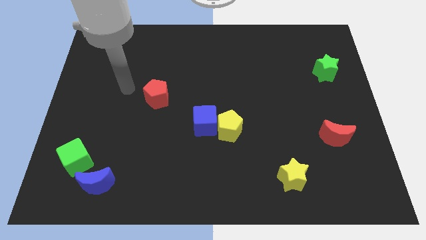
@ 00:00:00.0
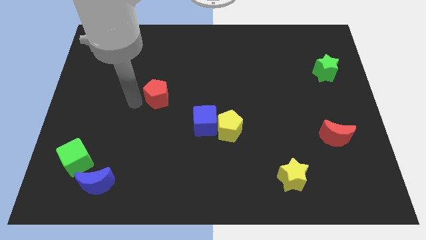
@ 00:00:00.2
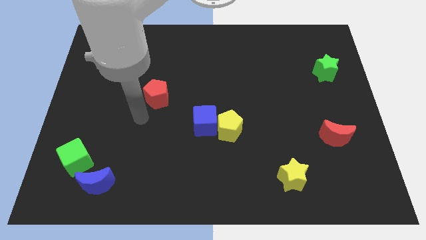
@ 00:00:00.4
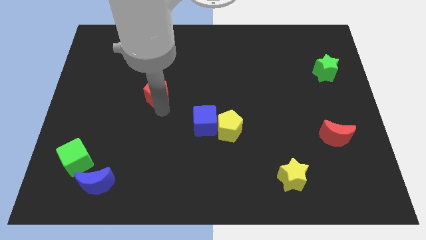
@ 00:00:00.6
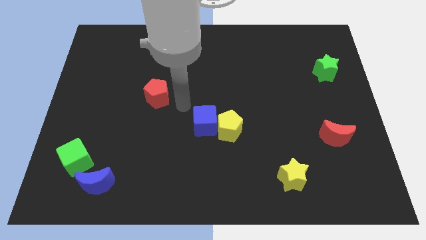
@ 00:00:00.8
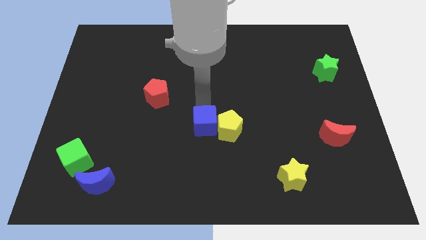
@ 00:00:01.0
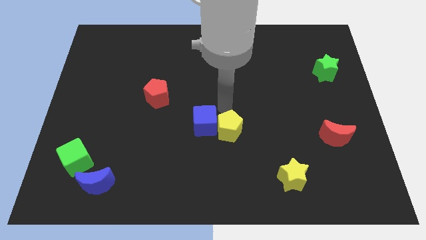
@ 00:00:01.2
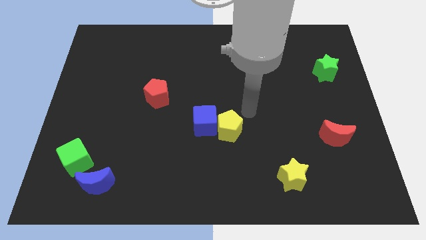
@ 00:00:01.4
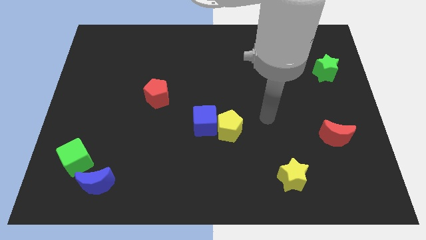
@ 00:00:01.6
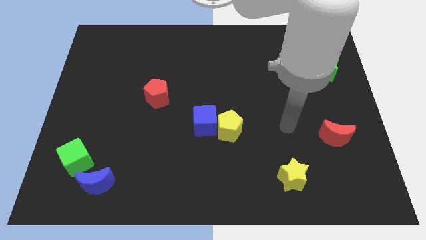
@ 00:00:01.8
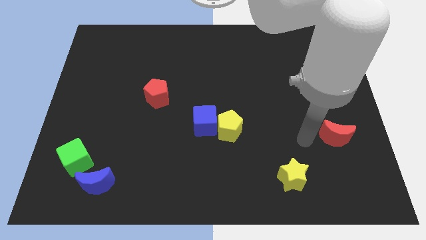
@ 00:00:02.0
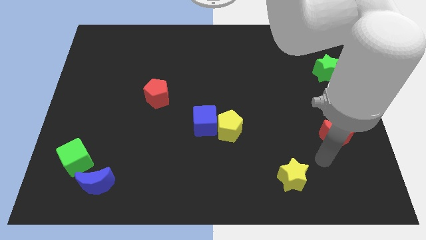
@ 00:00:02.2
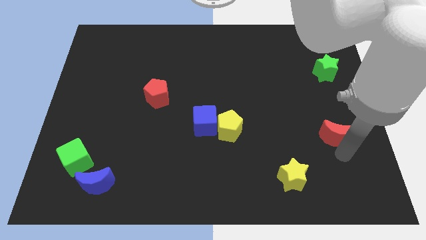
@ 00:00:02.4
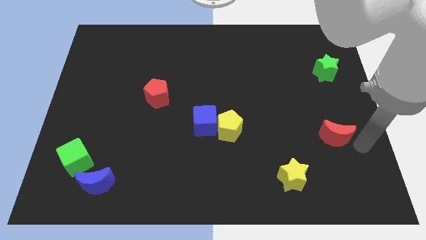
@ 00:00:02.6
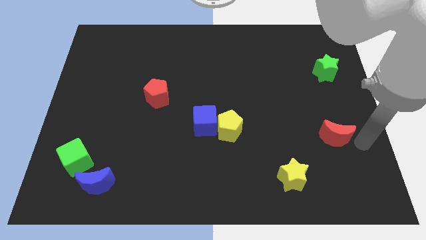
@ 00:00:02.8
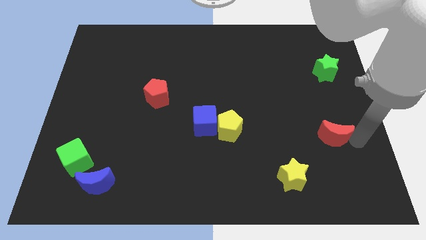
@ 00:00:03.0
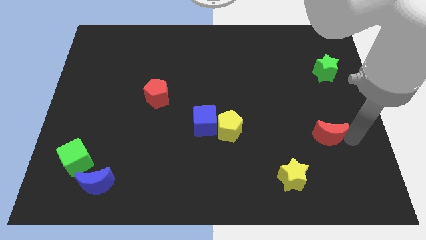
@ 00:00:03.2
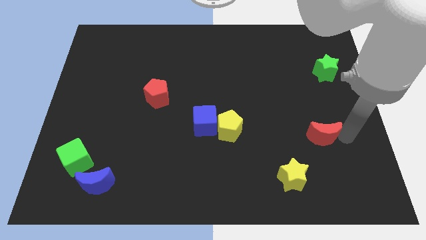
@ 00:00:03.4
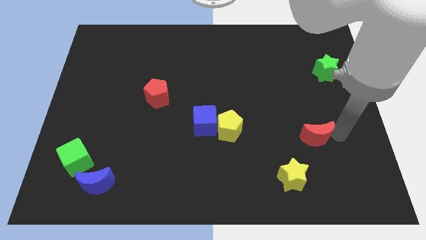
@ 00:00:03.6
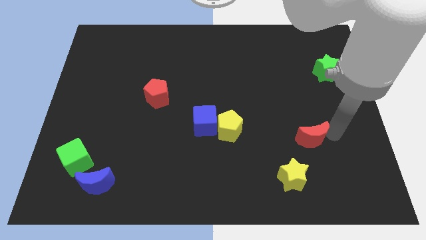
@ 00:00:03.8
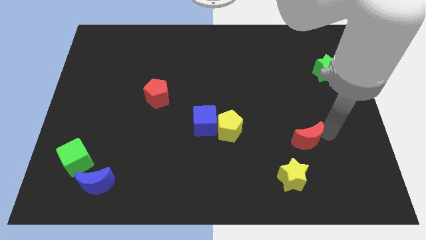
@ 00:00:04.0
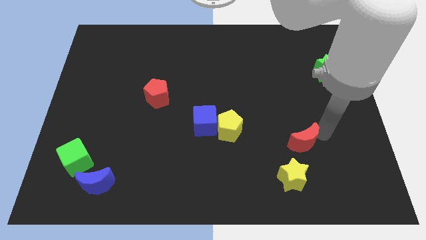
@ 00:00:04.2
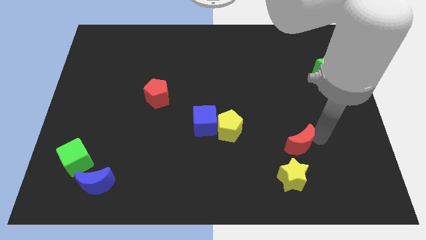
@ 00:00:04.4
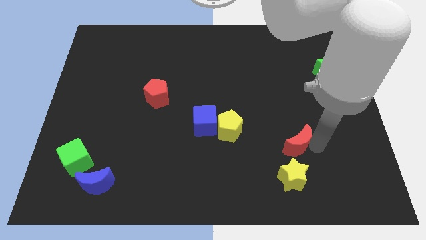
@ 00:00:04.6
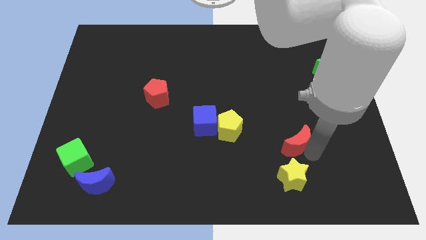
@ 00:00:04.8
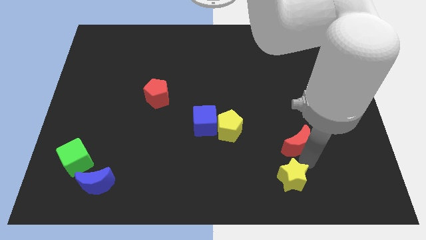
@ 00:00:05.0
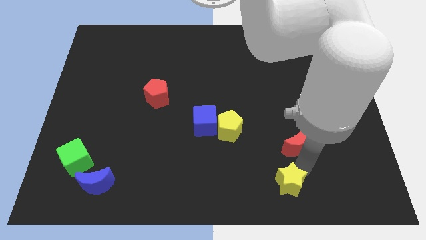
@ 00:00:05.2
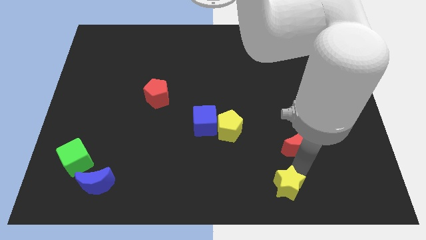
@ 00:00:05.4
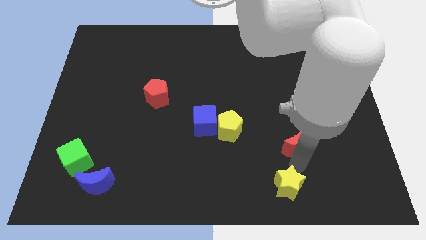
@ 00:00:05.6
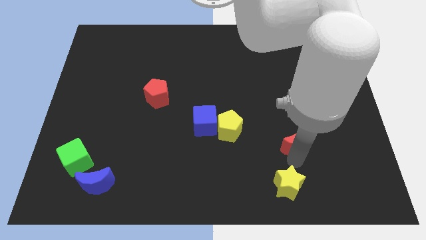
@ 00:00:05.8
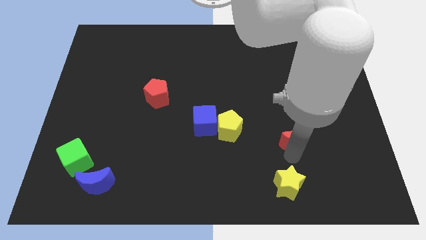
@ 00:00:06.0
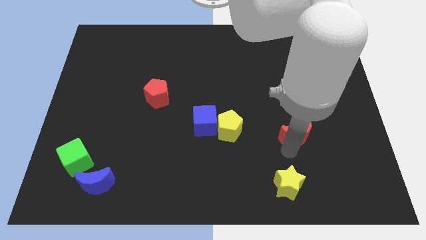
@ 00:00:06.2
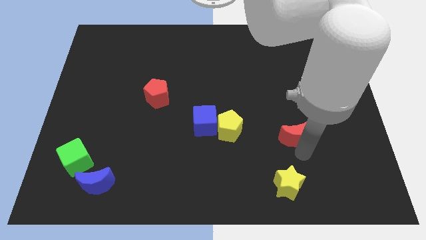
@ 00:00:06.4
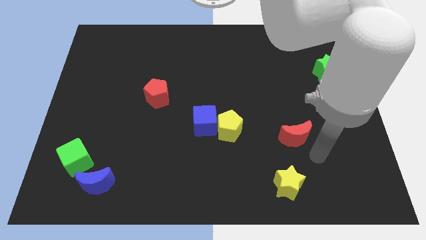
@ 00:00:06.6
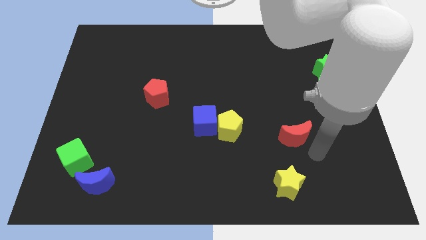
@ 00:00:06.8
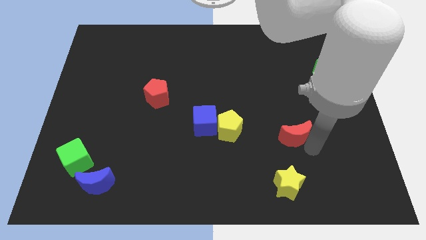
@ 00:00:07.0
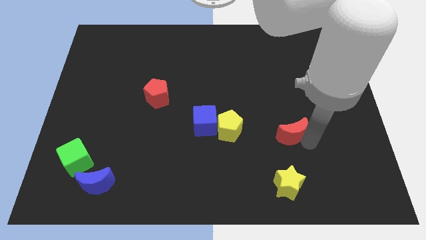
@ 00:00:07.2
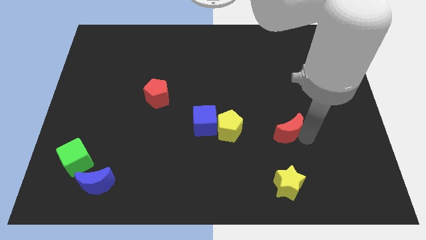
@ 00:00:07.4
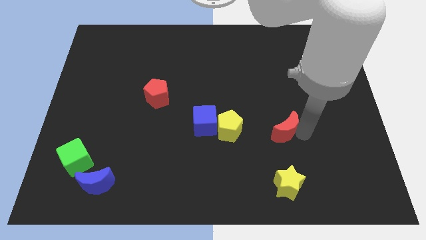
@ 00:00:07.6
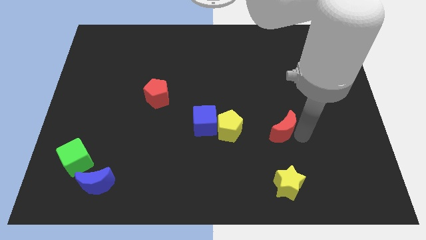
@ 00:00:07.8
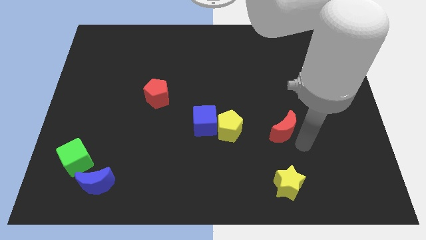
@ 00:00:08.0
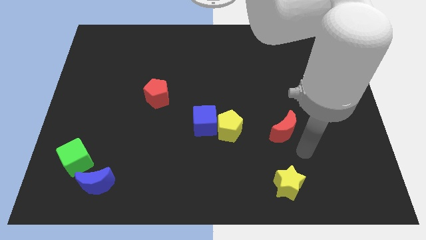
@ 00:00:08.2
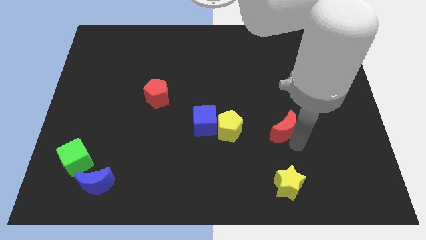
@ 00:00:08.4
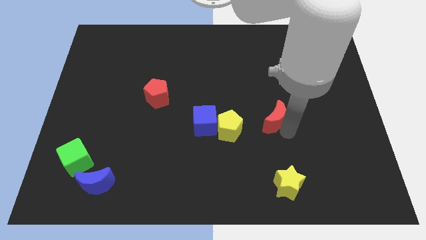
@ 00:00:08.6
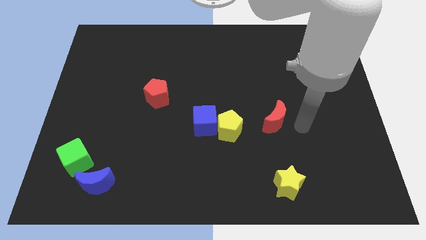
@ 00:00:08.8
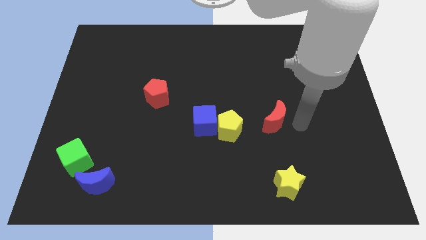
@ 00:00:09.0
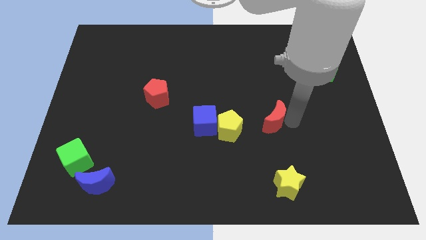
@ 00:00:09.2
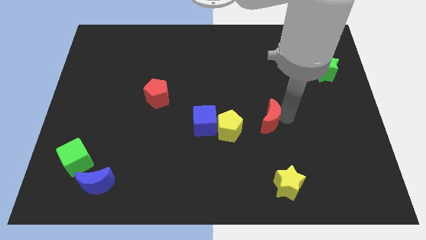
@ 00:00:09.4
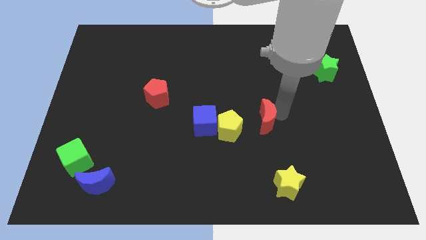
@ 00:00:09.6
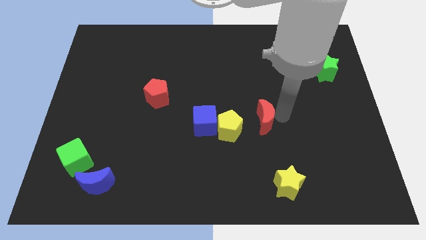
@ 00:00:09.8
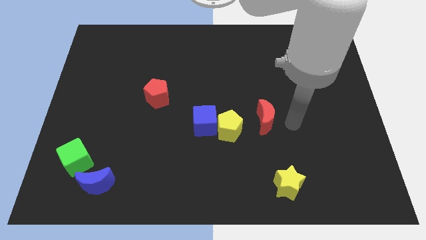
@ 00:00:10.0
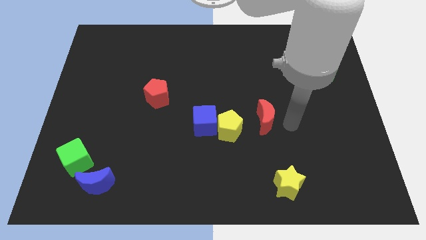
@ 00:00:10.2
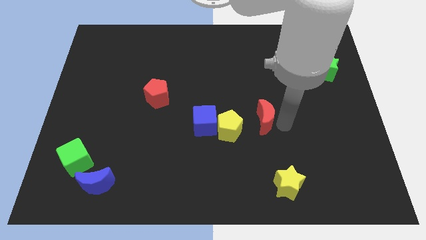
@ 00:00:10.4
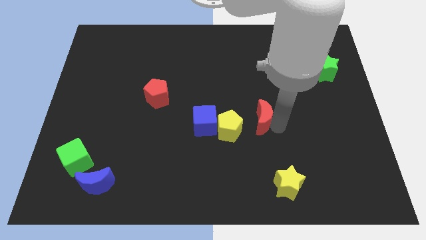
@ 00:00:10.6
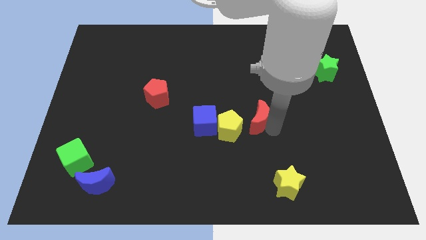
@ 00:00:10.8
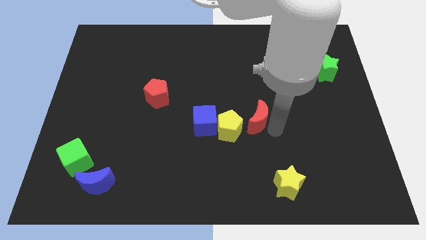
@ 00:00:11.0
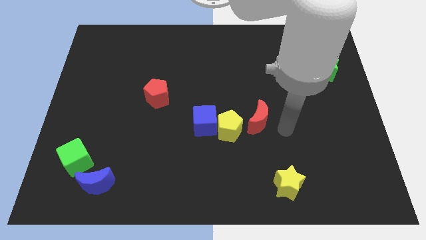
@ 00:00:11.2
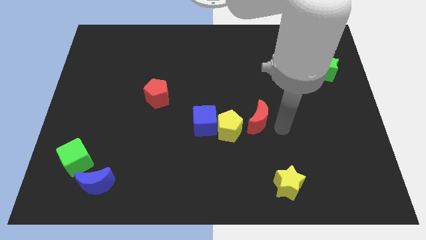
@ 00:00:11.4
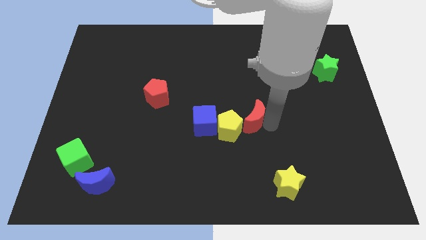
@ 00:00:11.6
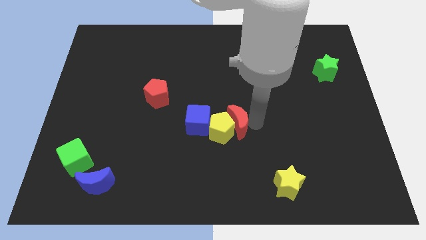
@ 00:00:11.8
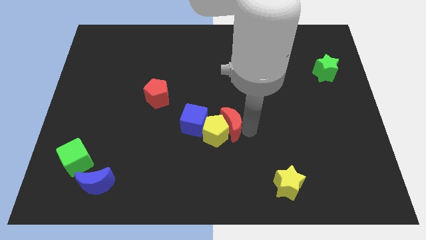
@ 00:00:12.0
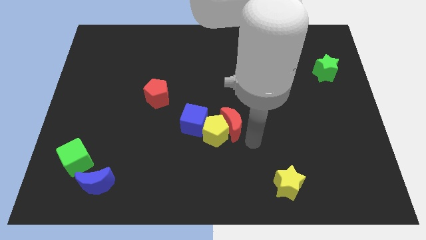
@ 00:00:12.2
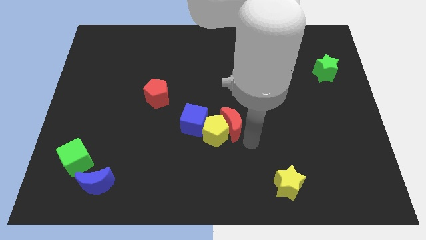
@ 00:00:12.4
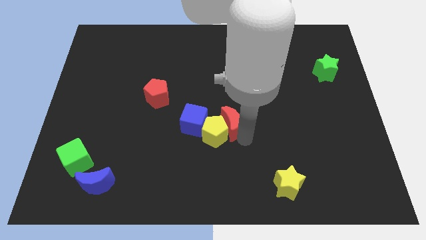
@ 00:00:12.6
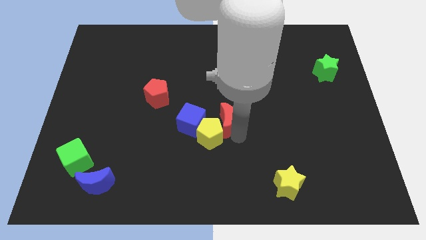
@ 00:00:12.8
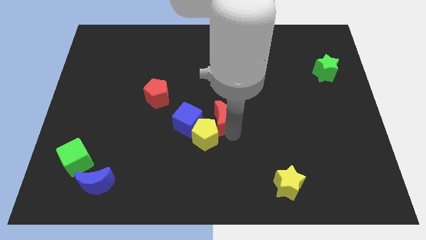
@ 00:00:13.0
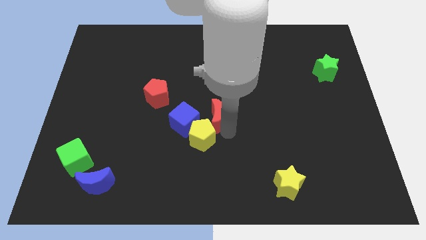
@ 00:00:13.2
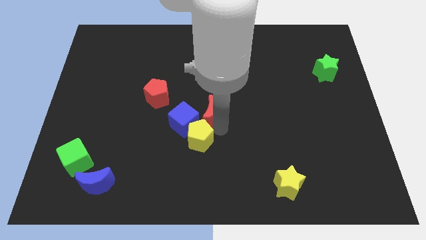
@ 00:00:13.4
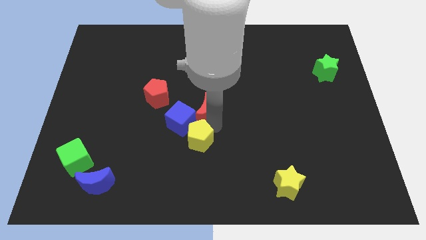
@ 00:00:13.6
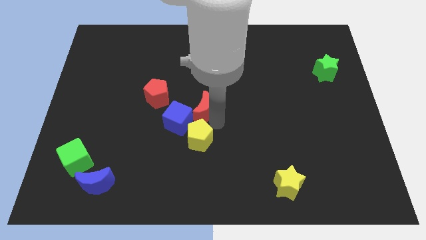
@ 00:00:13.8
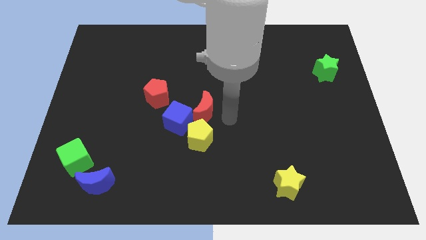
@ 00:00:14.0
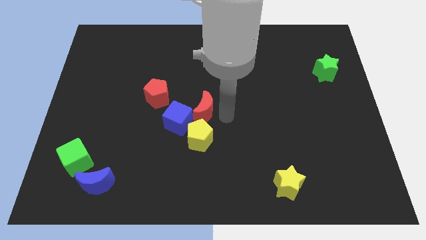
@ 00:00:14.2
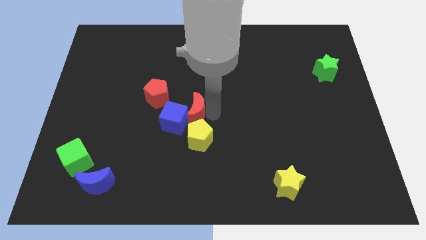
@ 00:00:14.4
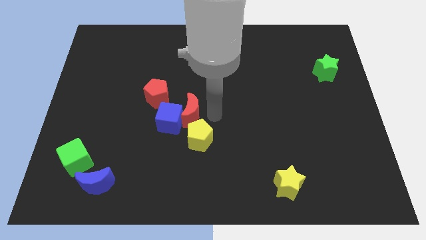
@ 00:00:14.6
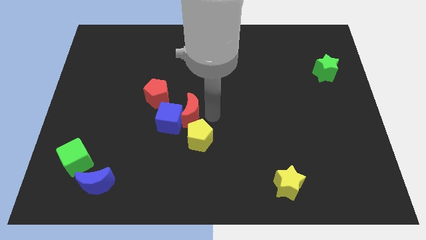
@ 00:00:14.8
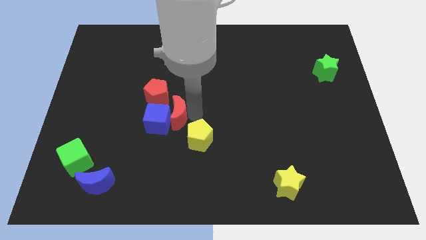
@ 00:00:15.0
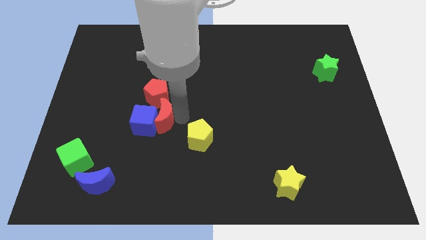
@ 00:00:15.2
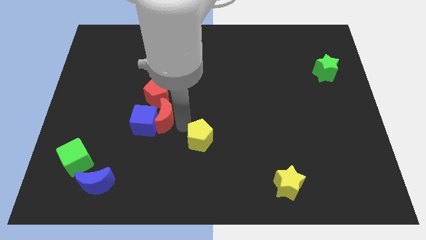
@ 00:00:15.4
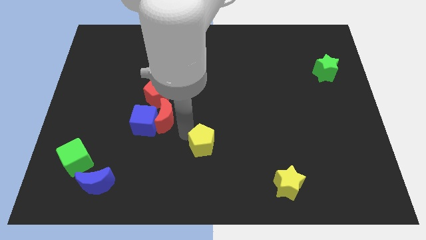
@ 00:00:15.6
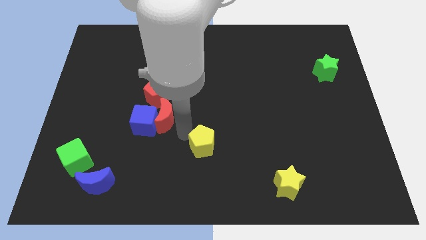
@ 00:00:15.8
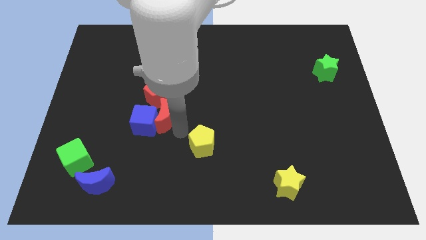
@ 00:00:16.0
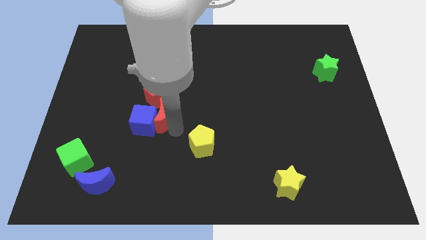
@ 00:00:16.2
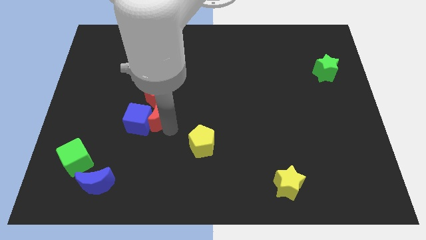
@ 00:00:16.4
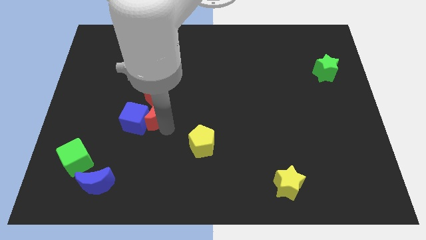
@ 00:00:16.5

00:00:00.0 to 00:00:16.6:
put the red moon diagonally down and to the left of the red pentagon
